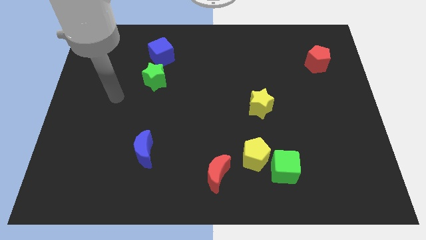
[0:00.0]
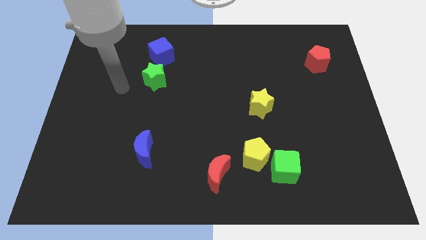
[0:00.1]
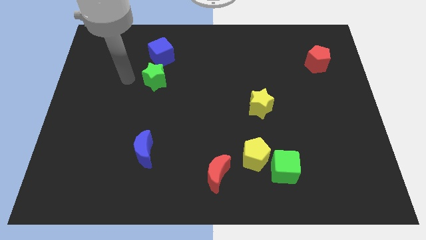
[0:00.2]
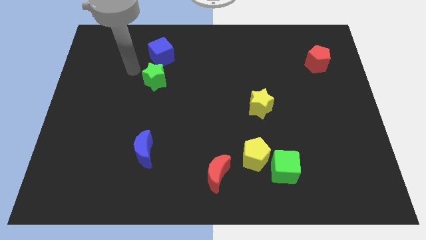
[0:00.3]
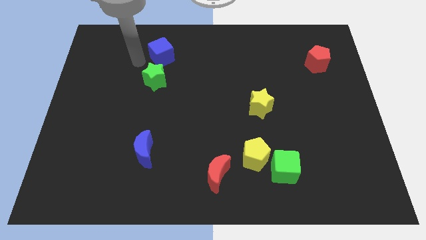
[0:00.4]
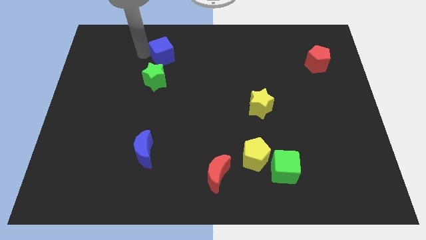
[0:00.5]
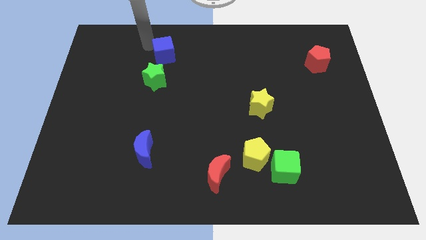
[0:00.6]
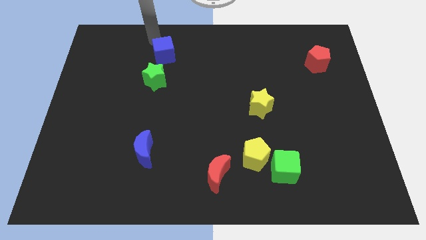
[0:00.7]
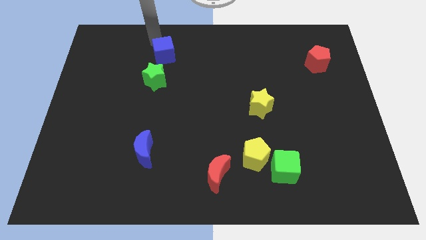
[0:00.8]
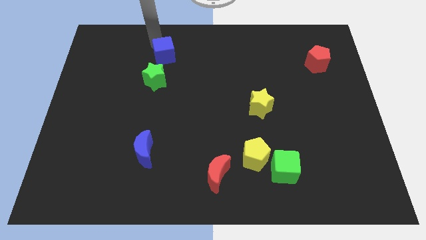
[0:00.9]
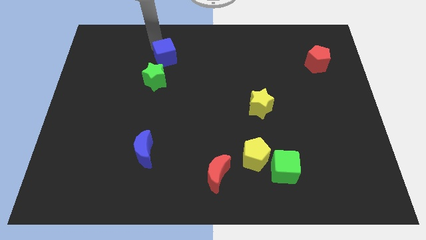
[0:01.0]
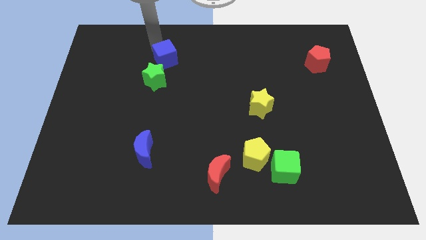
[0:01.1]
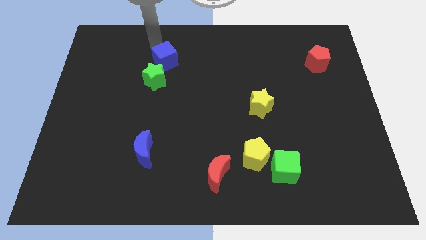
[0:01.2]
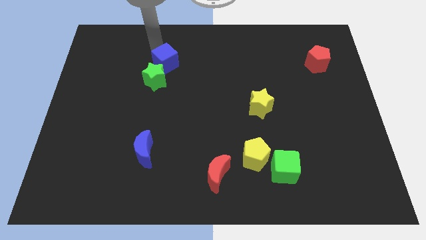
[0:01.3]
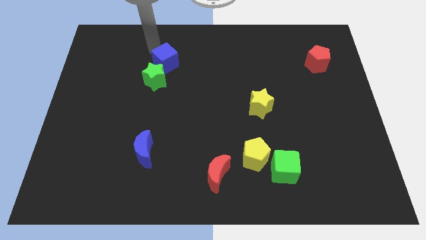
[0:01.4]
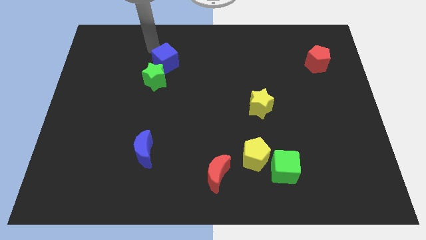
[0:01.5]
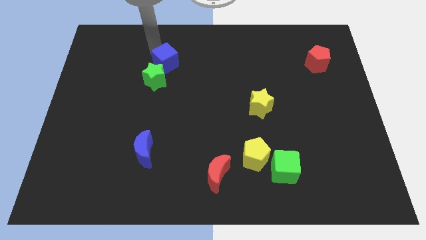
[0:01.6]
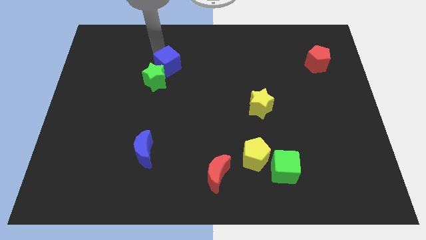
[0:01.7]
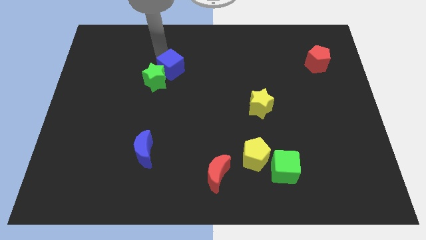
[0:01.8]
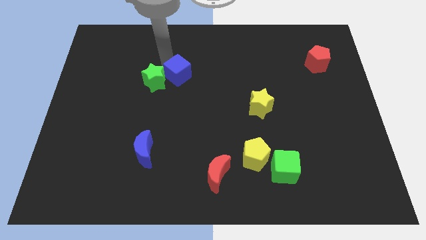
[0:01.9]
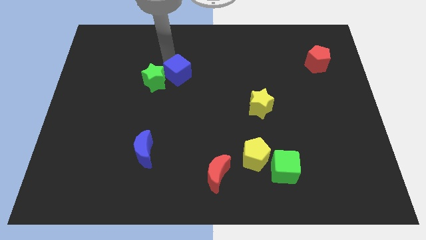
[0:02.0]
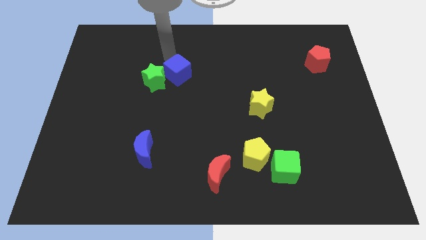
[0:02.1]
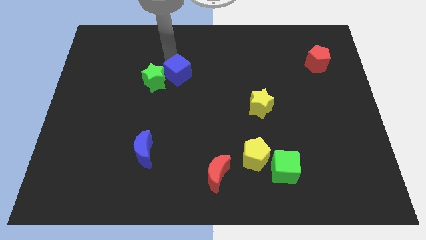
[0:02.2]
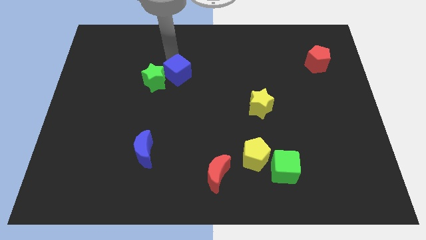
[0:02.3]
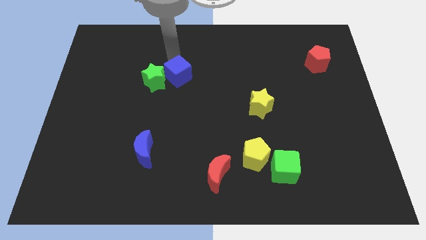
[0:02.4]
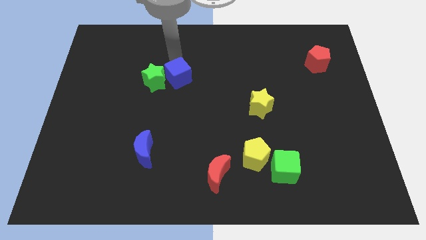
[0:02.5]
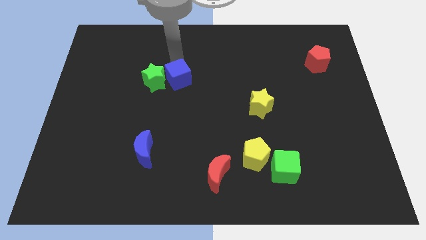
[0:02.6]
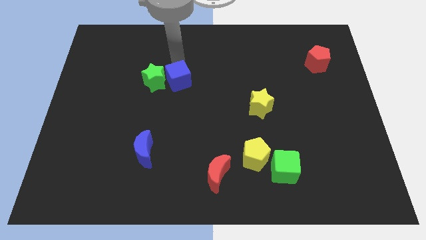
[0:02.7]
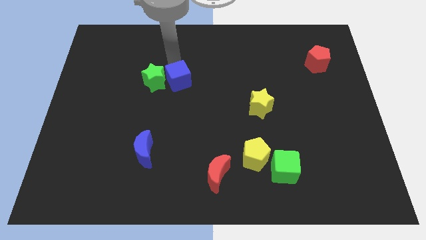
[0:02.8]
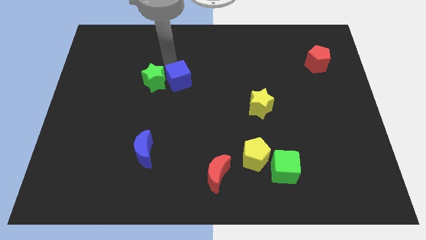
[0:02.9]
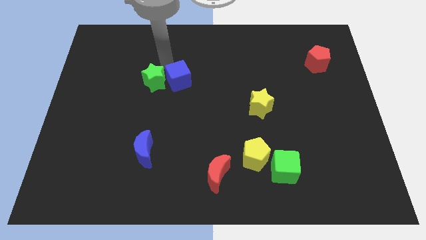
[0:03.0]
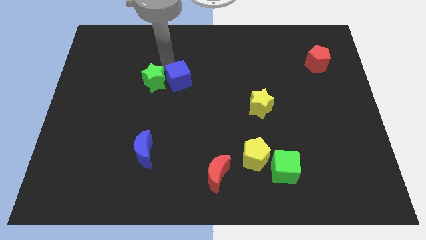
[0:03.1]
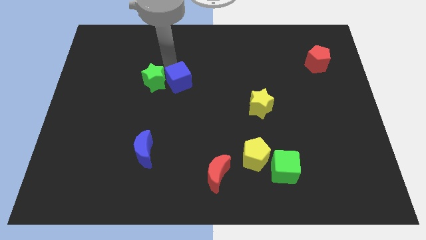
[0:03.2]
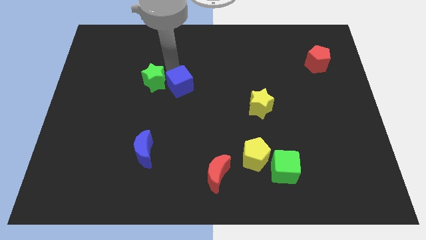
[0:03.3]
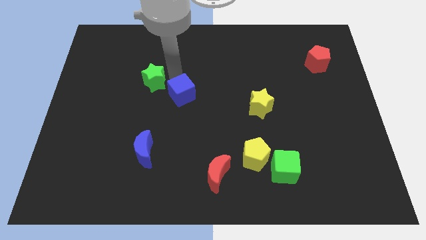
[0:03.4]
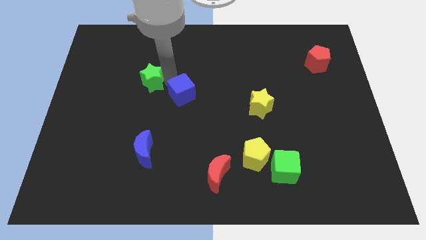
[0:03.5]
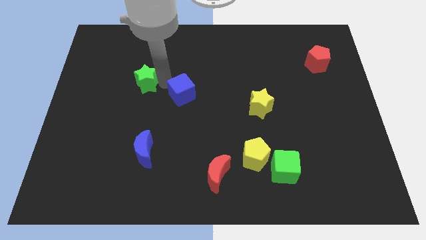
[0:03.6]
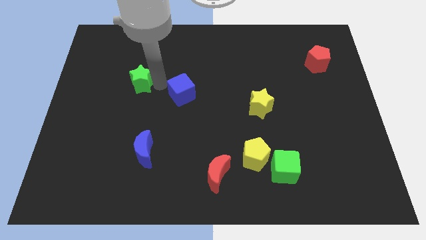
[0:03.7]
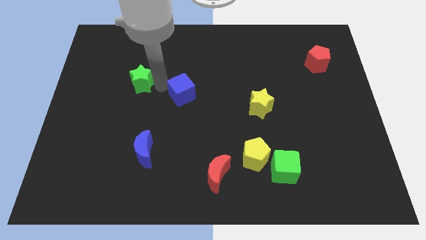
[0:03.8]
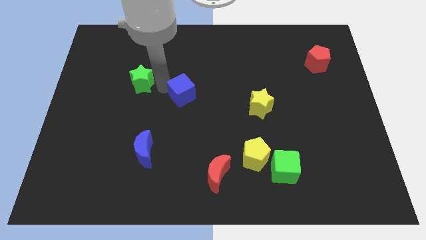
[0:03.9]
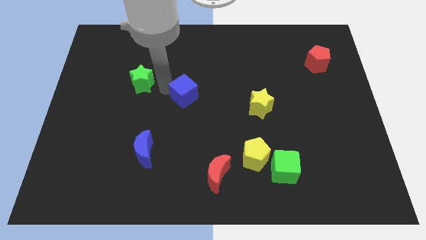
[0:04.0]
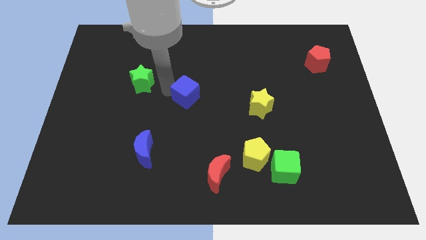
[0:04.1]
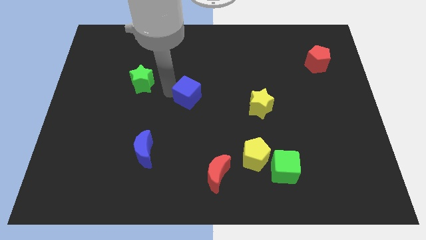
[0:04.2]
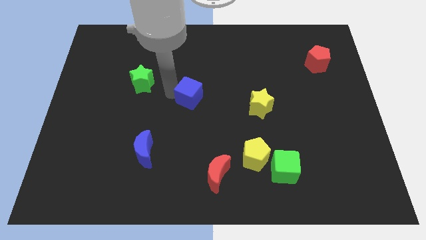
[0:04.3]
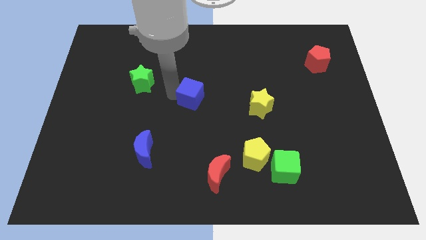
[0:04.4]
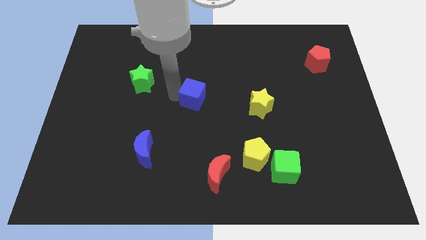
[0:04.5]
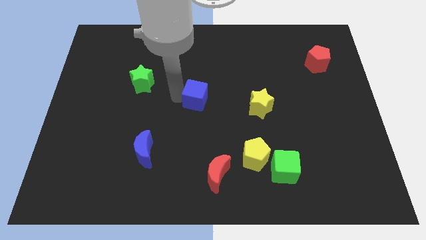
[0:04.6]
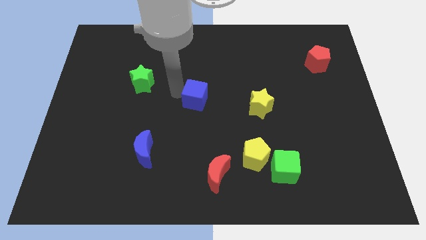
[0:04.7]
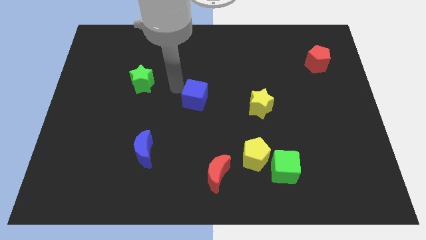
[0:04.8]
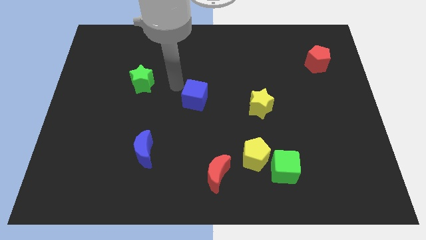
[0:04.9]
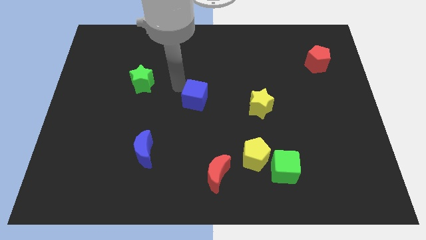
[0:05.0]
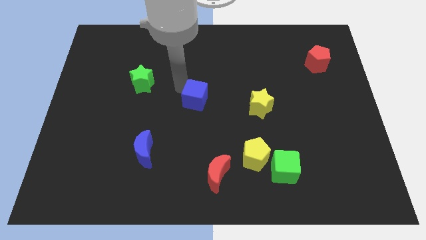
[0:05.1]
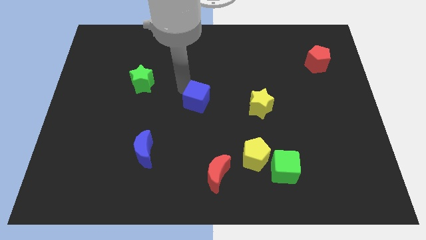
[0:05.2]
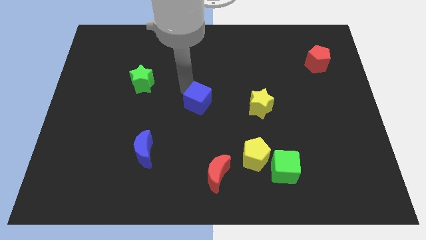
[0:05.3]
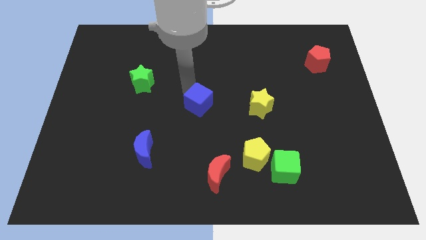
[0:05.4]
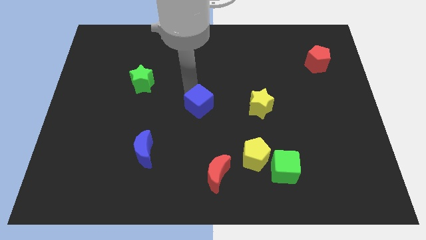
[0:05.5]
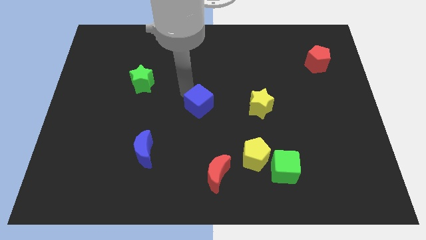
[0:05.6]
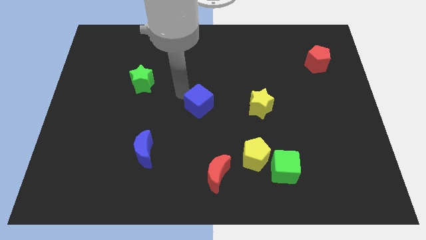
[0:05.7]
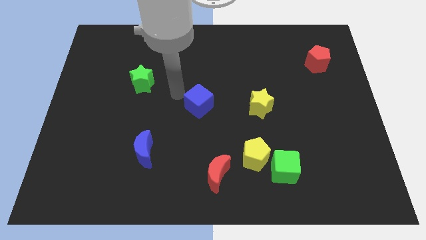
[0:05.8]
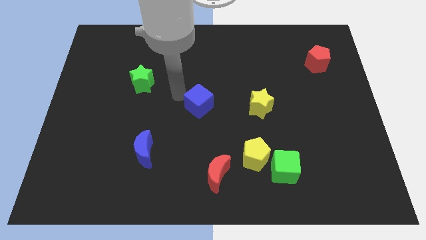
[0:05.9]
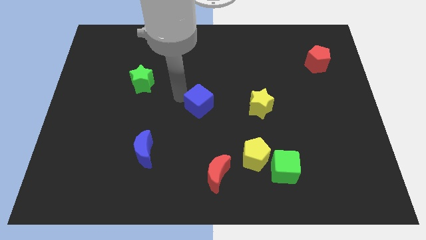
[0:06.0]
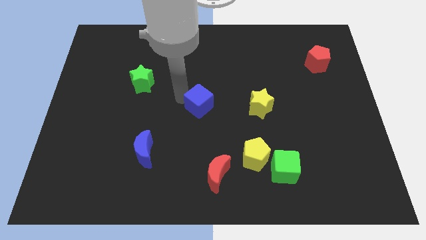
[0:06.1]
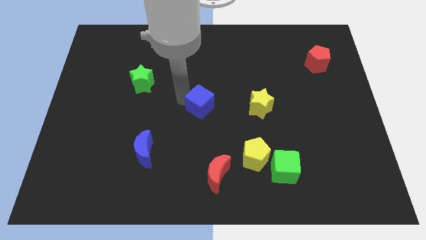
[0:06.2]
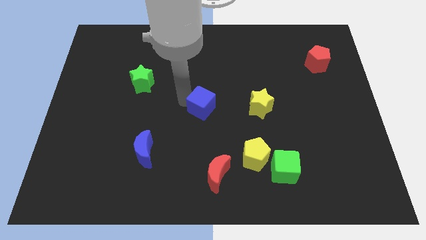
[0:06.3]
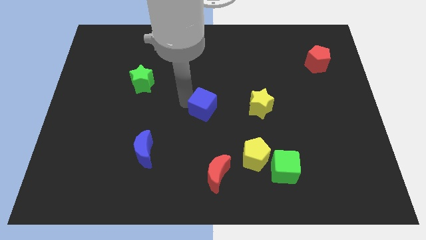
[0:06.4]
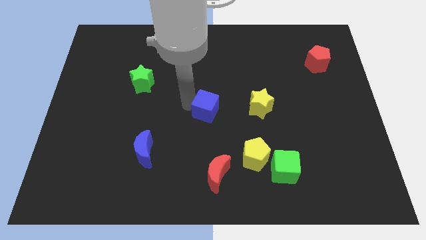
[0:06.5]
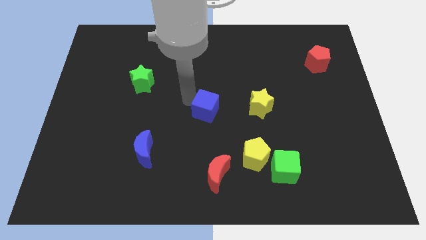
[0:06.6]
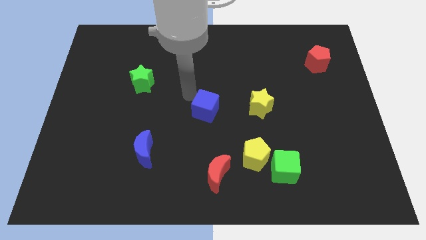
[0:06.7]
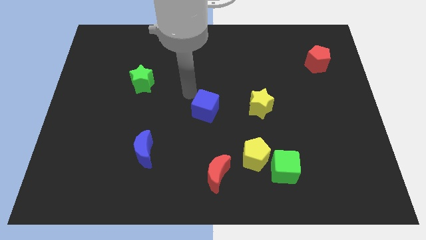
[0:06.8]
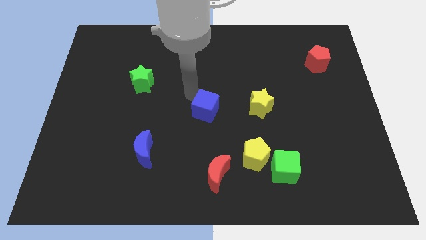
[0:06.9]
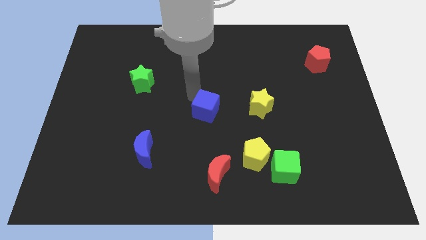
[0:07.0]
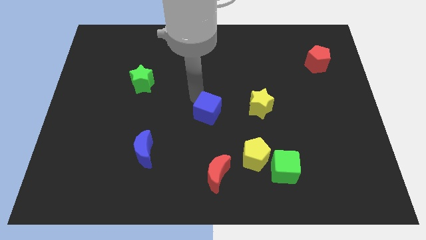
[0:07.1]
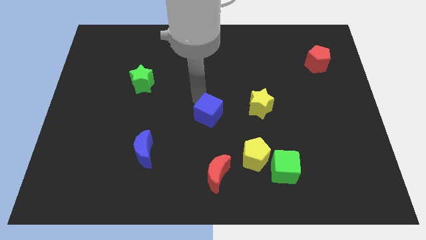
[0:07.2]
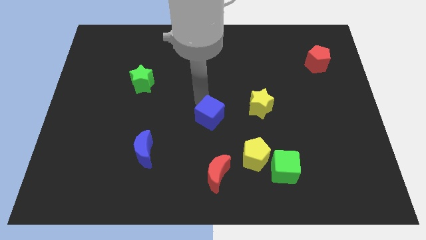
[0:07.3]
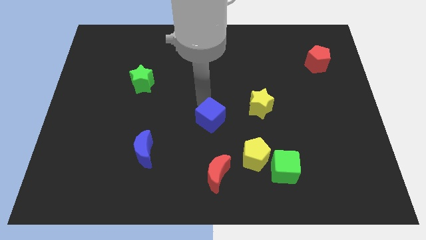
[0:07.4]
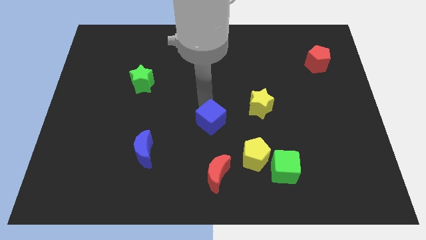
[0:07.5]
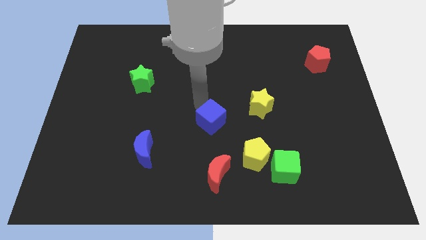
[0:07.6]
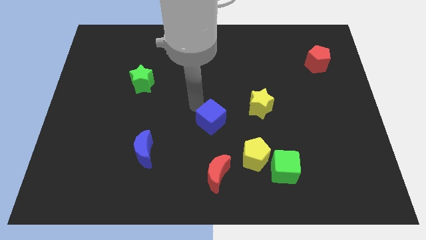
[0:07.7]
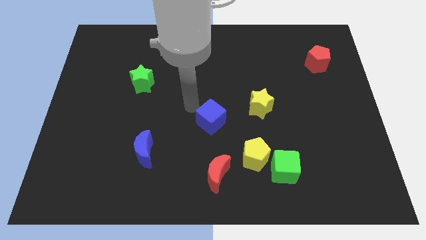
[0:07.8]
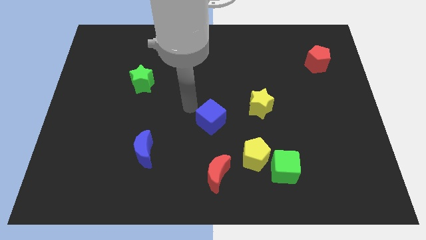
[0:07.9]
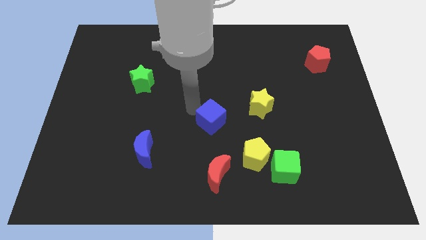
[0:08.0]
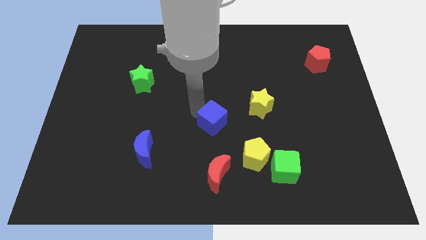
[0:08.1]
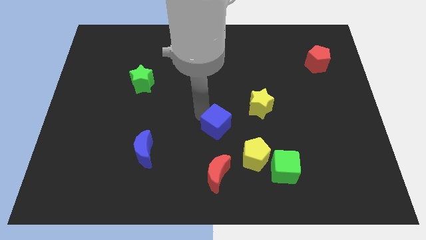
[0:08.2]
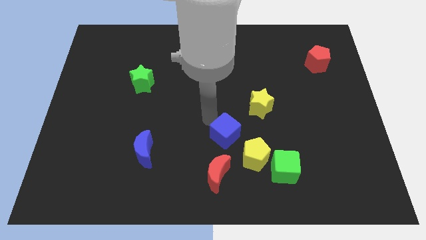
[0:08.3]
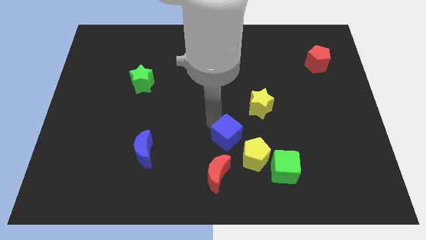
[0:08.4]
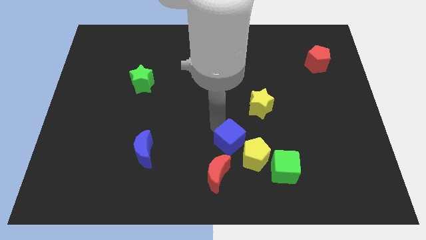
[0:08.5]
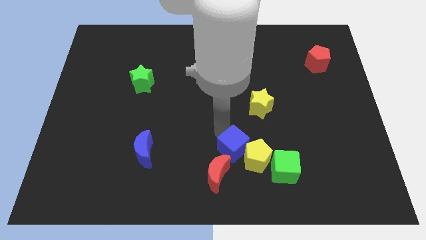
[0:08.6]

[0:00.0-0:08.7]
put the blue cube towards the yellow pentagon
